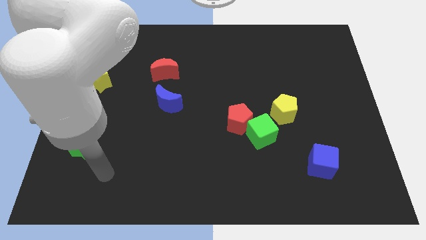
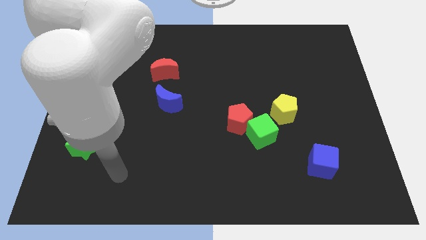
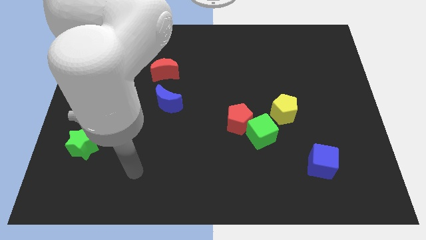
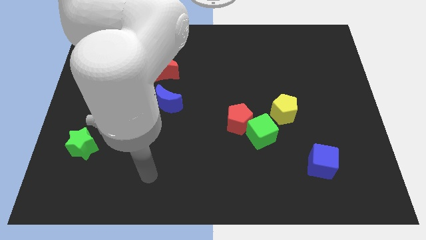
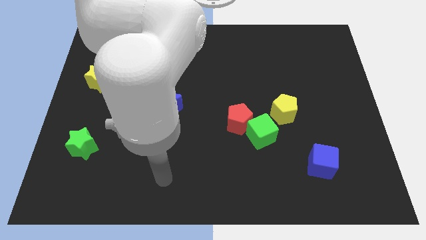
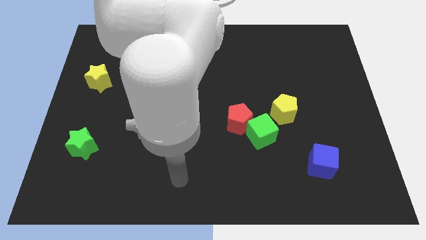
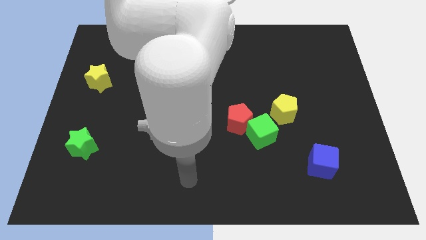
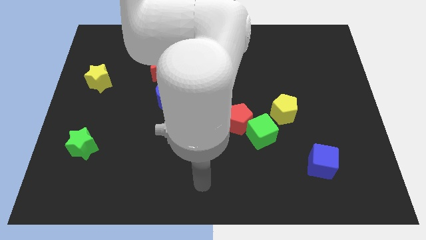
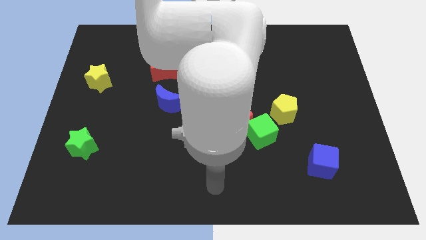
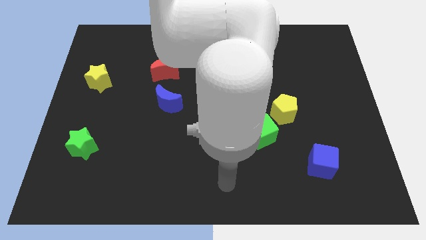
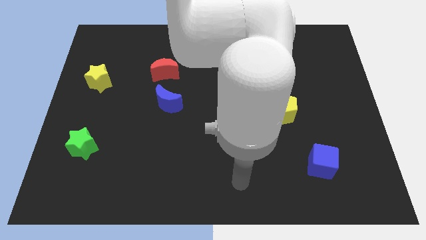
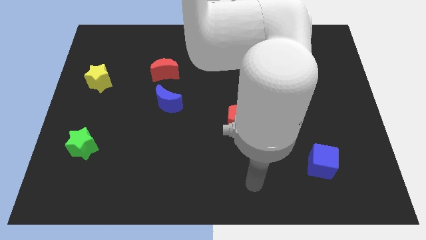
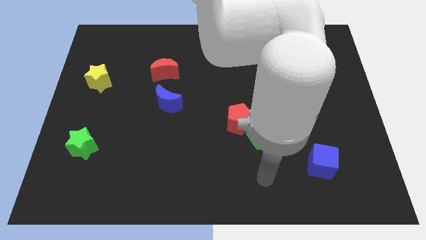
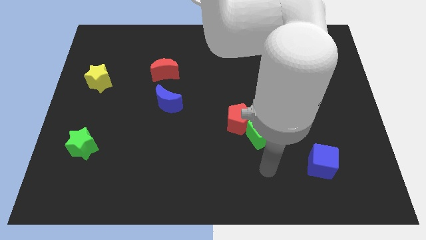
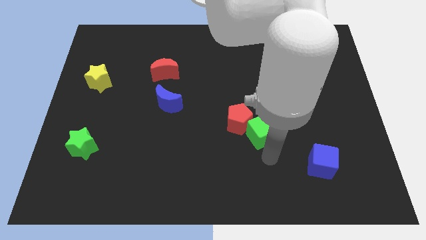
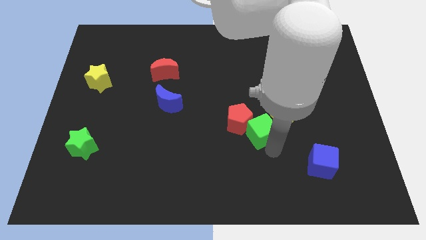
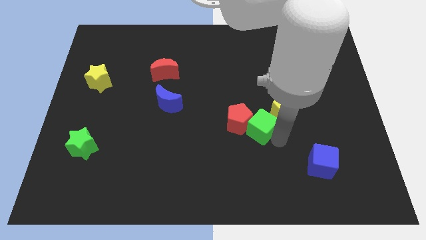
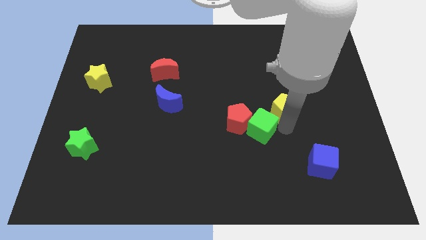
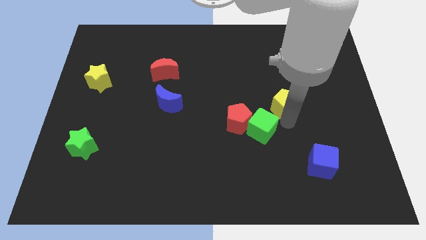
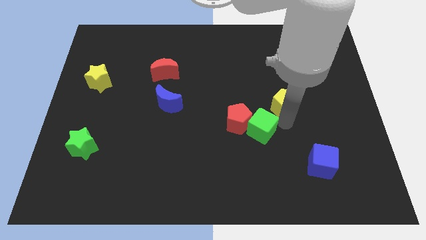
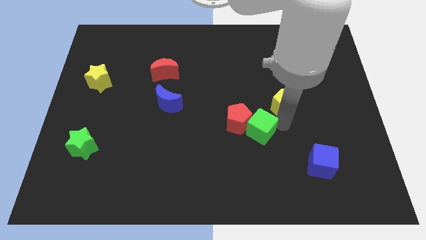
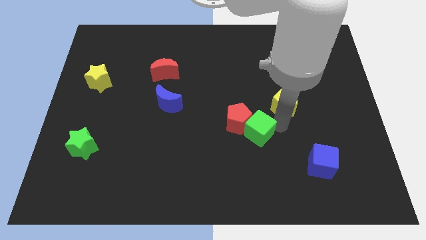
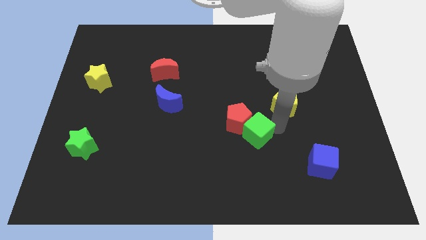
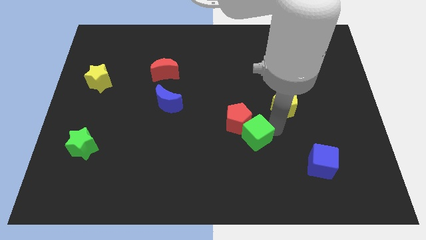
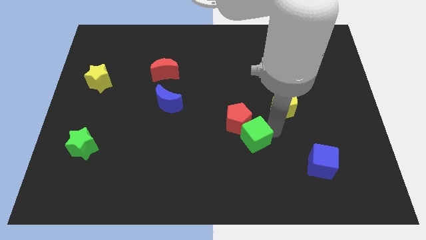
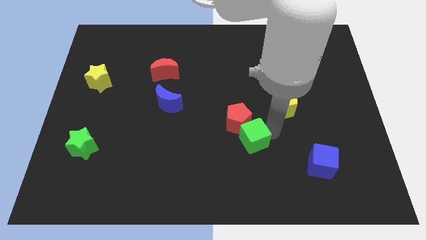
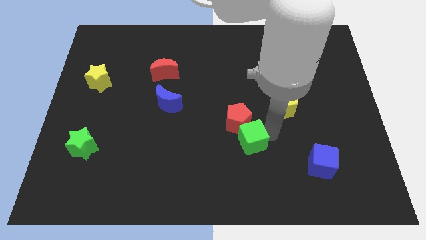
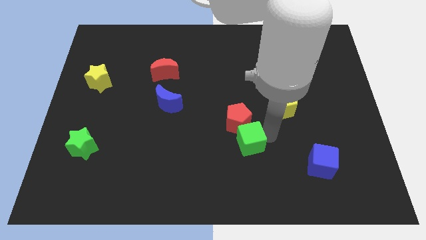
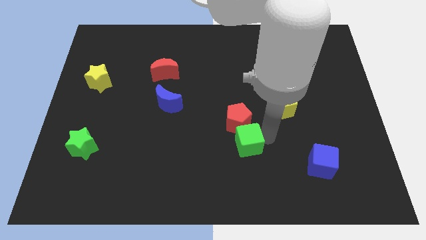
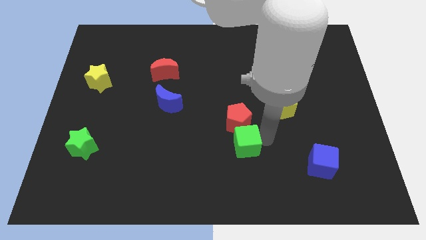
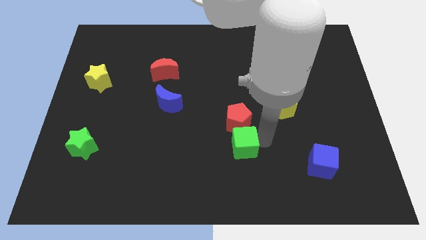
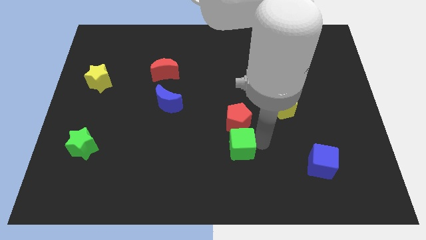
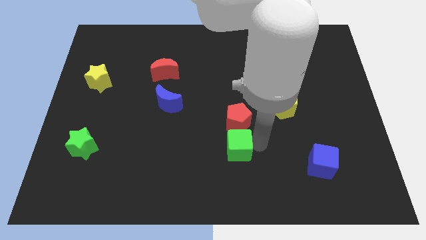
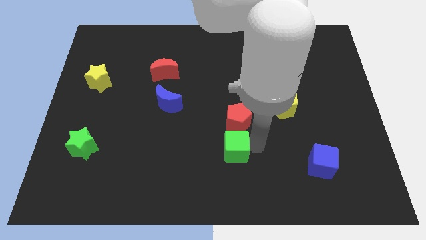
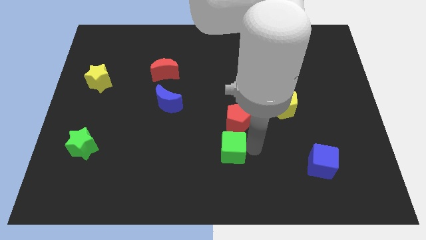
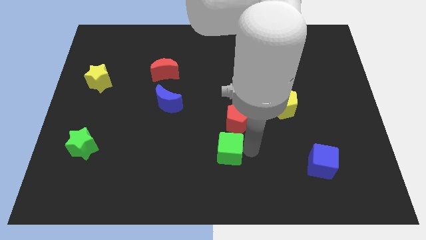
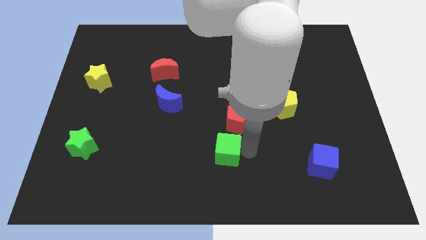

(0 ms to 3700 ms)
slide the green cube to the left a little bit

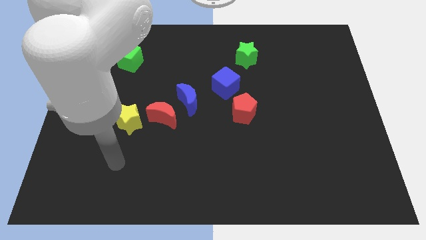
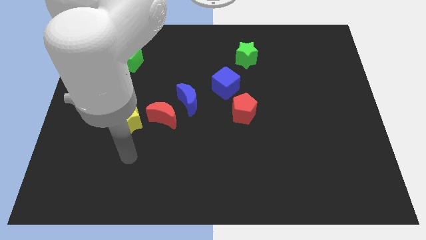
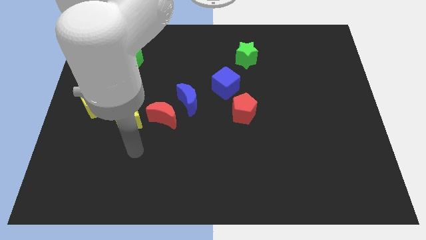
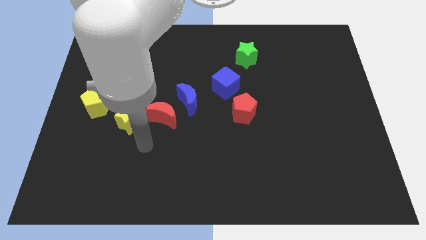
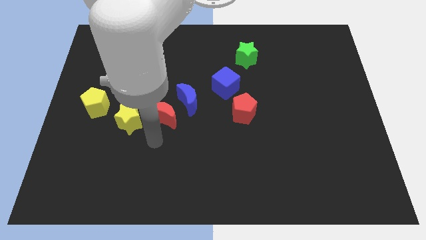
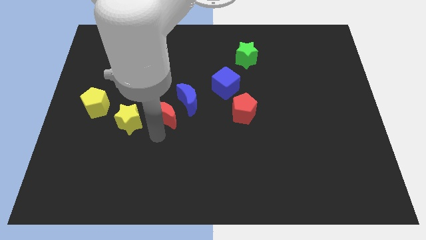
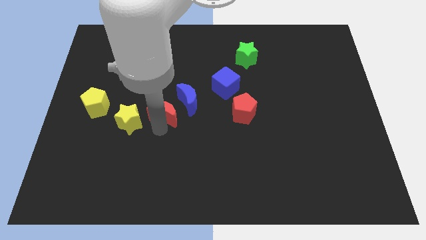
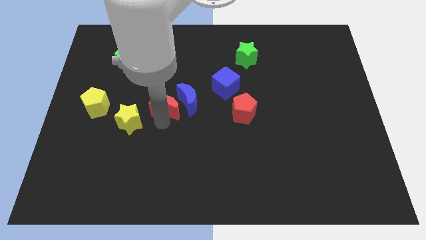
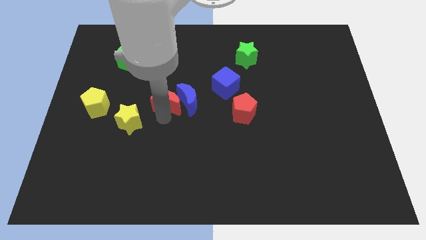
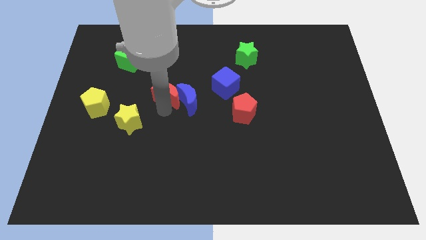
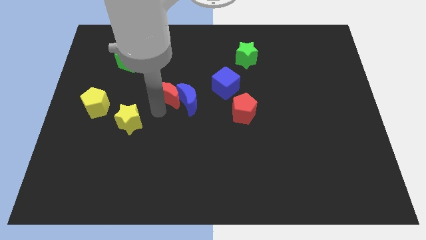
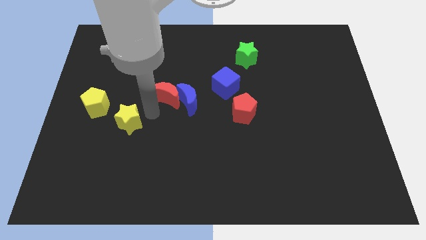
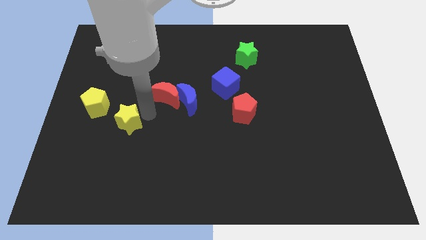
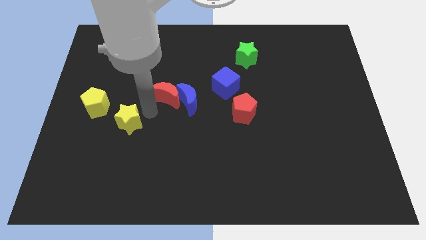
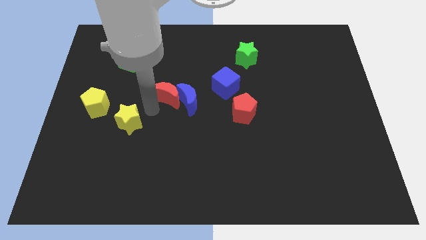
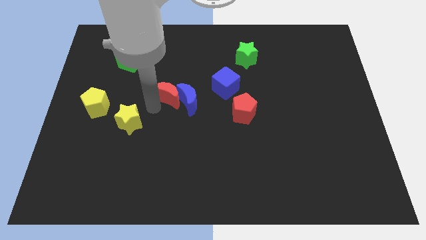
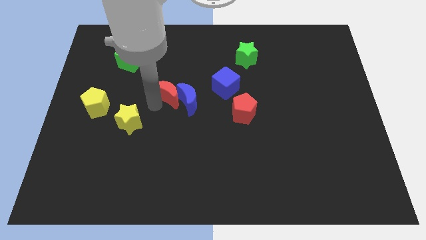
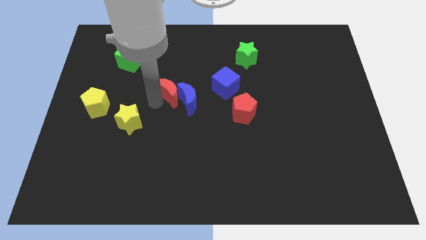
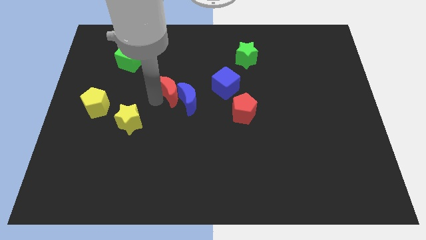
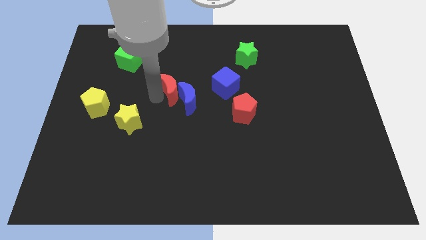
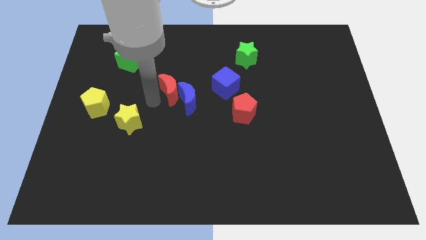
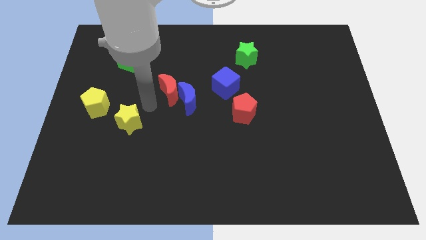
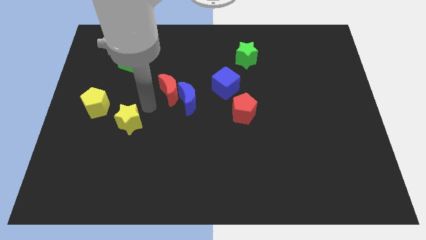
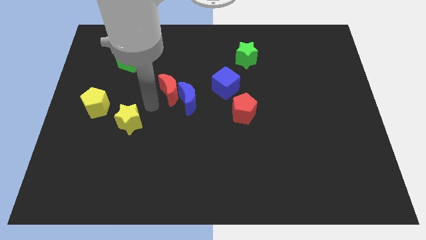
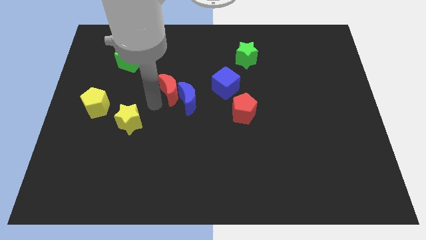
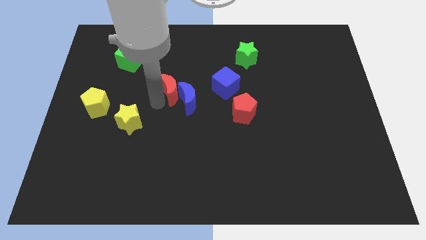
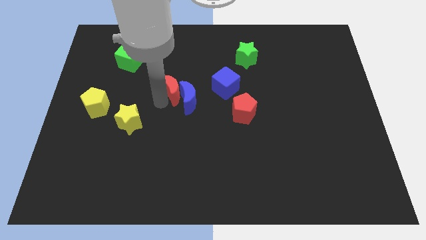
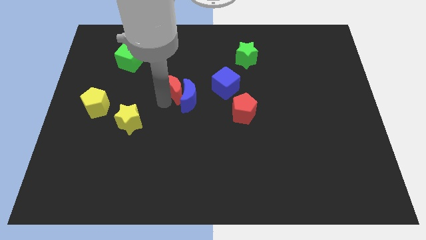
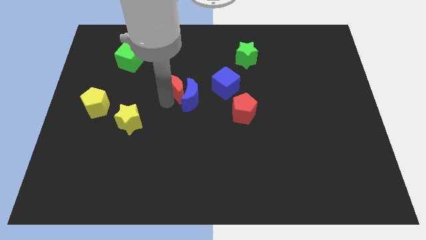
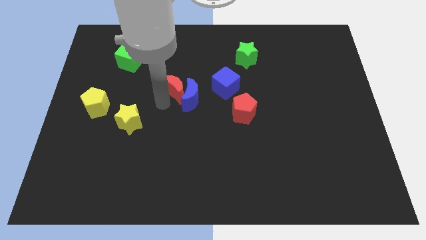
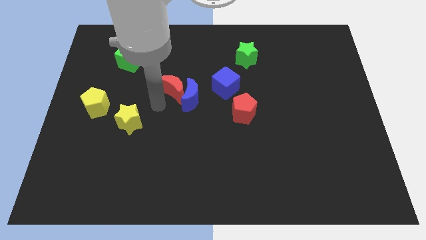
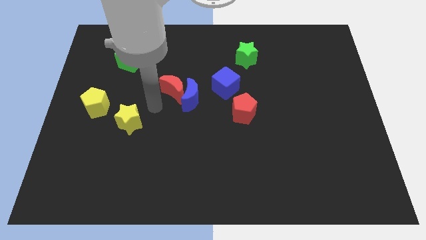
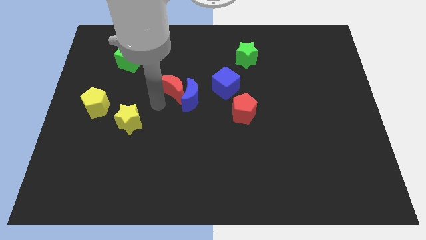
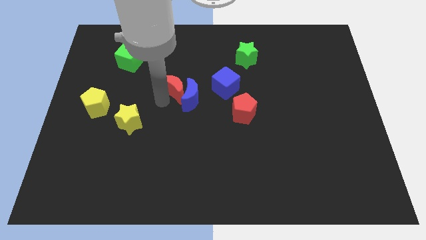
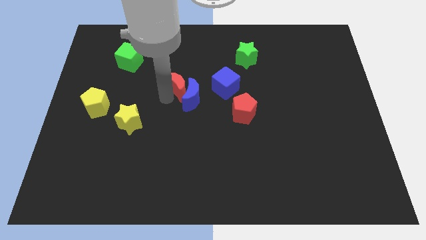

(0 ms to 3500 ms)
move the red moon slightly up and to the right diagonally

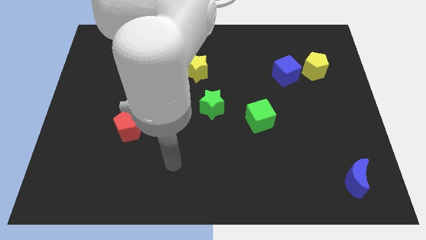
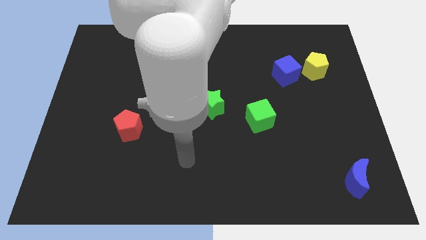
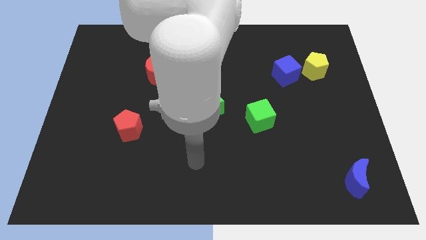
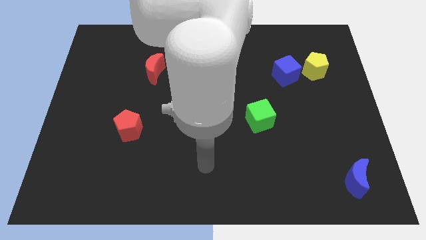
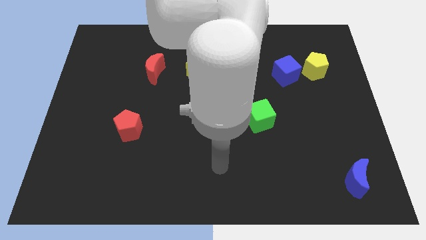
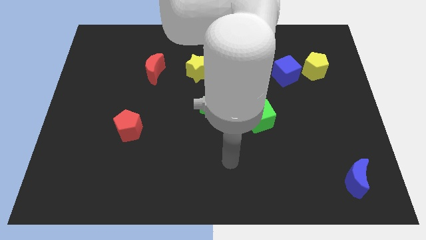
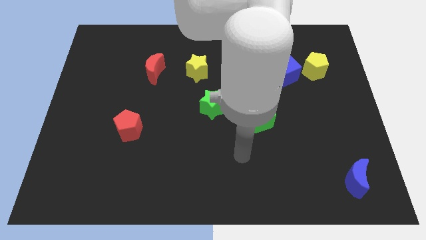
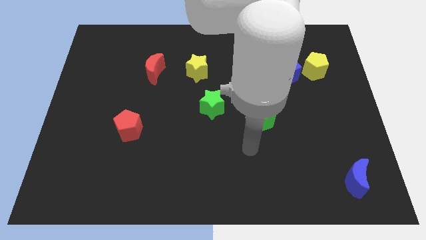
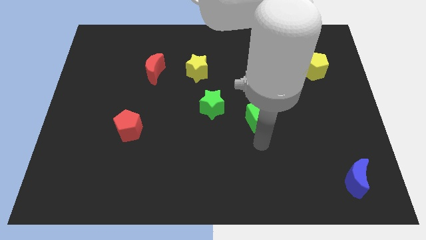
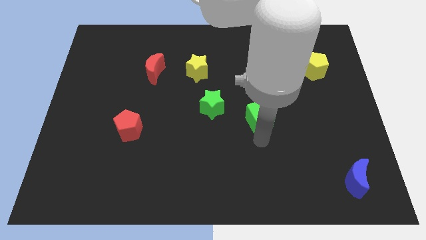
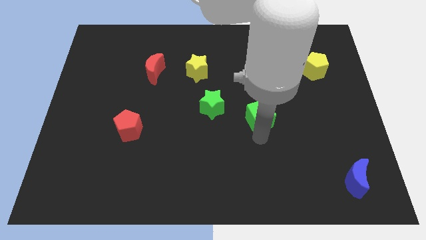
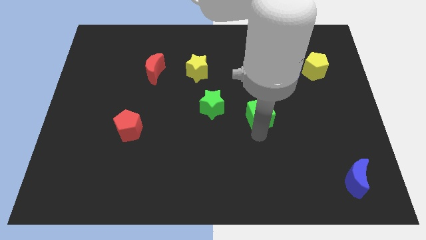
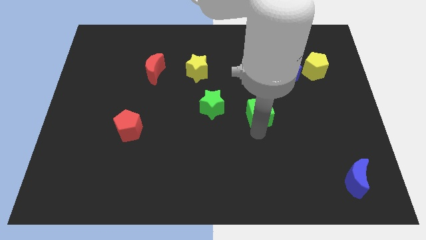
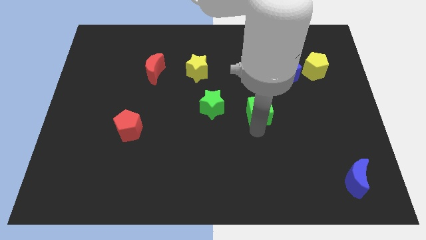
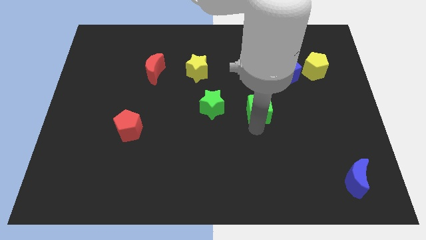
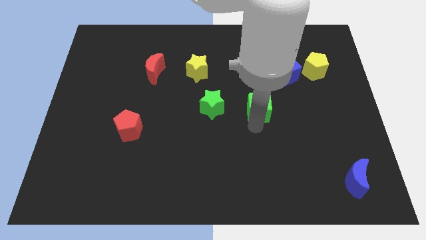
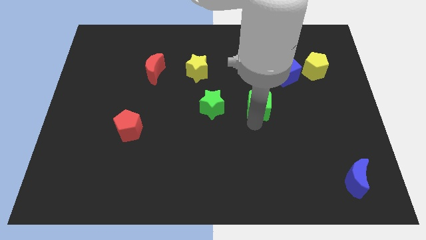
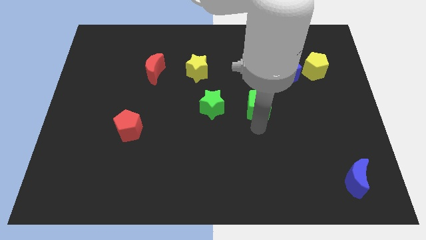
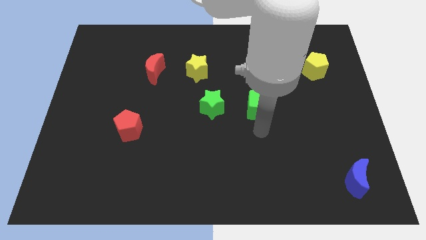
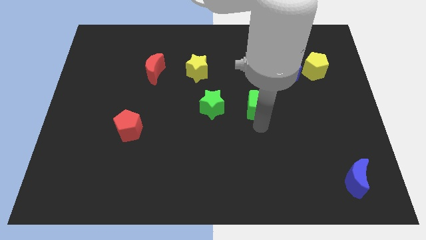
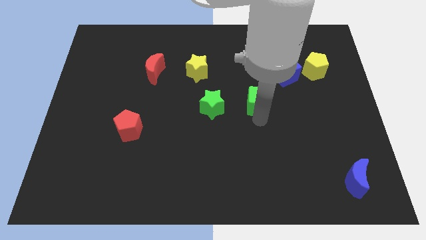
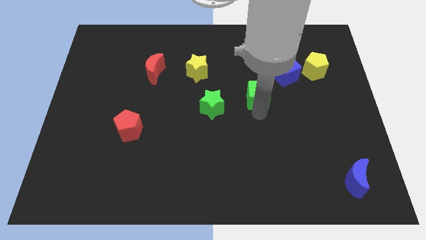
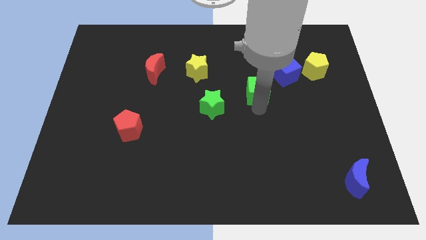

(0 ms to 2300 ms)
slightly move the green cube upwards
